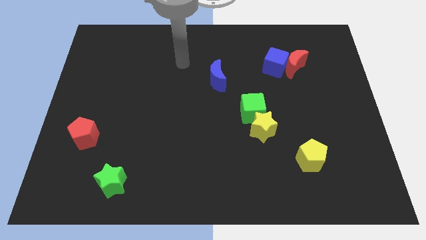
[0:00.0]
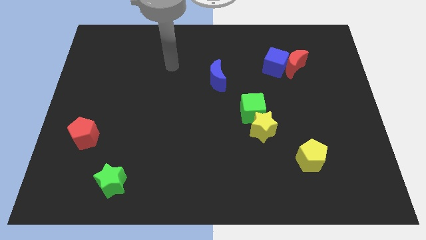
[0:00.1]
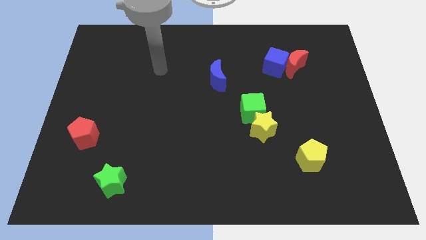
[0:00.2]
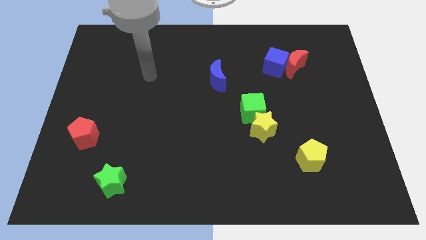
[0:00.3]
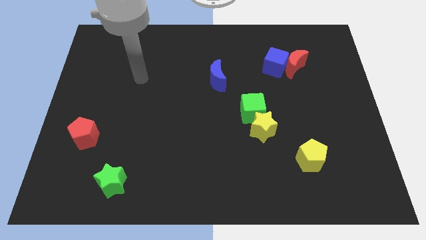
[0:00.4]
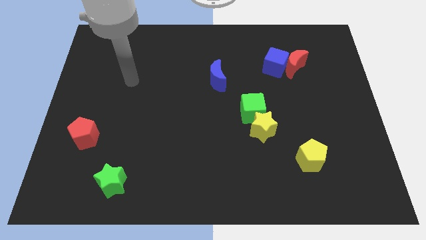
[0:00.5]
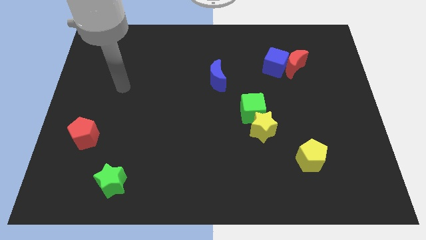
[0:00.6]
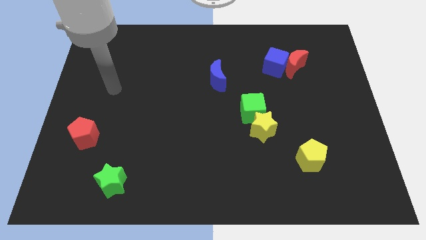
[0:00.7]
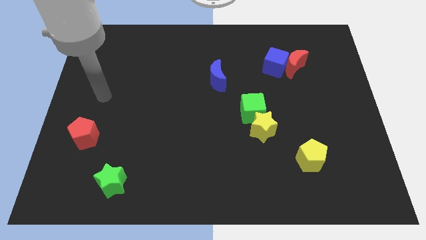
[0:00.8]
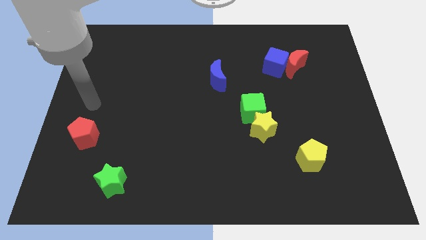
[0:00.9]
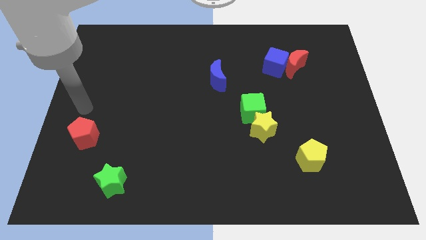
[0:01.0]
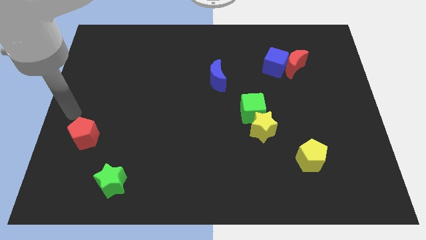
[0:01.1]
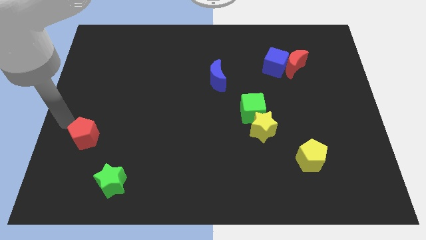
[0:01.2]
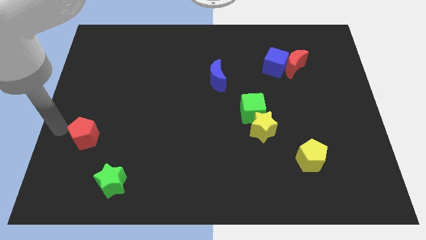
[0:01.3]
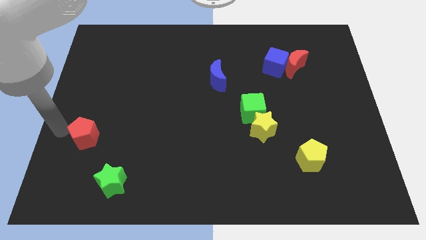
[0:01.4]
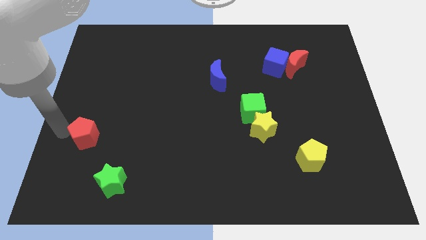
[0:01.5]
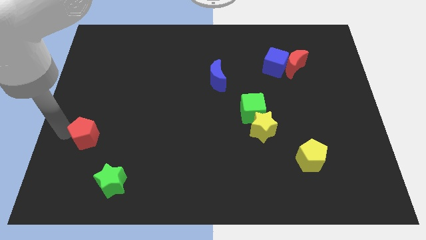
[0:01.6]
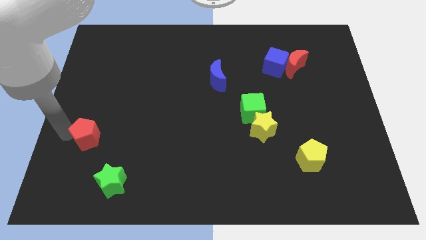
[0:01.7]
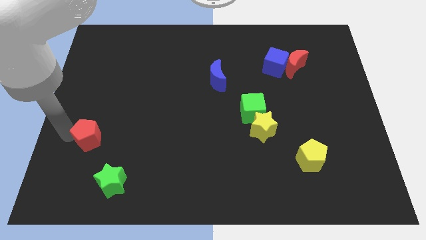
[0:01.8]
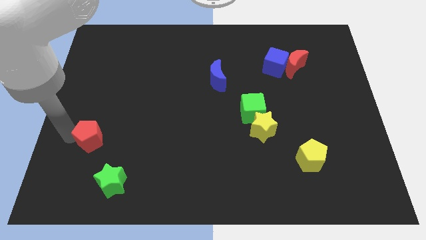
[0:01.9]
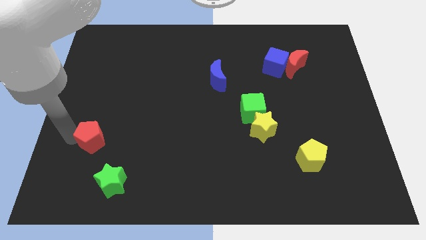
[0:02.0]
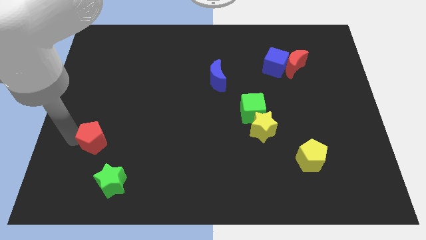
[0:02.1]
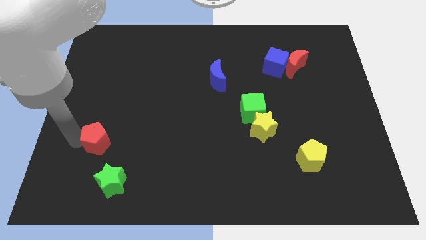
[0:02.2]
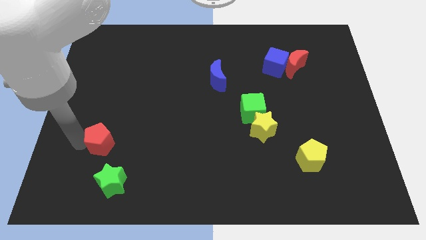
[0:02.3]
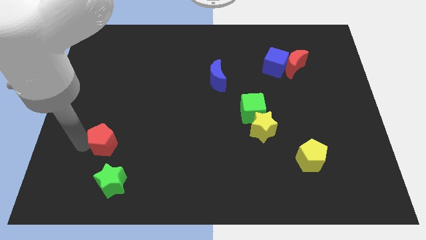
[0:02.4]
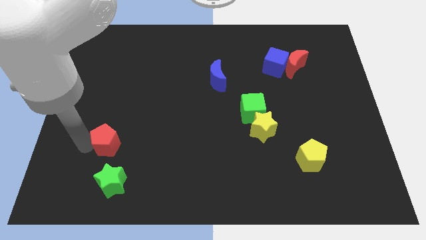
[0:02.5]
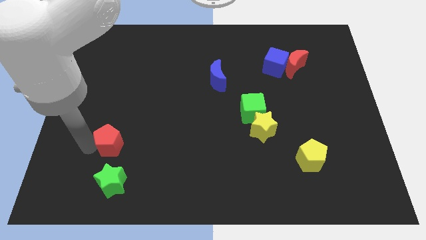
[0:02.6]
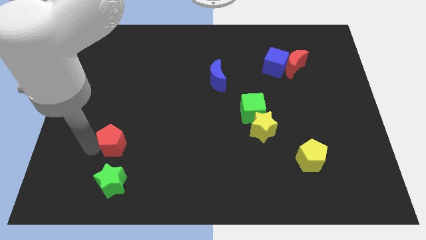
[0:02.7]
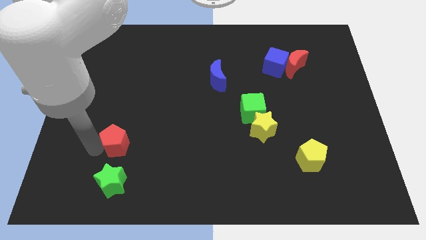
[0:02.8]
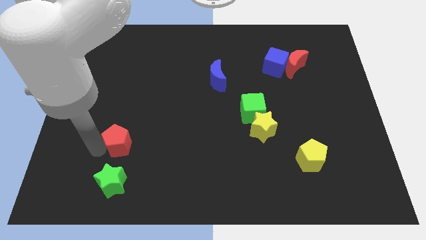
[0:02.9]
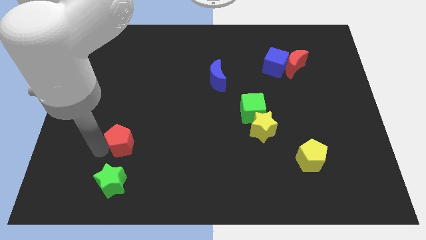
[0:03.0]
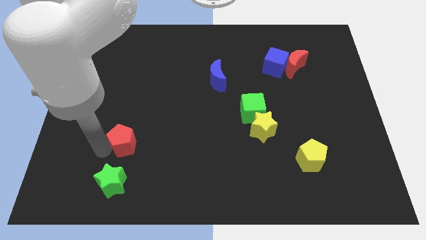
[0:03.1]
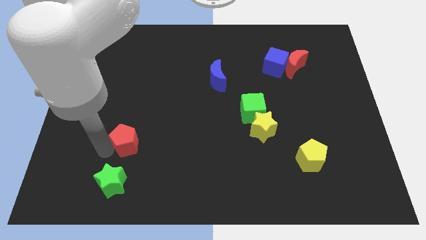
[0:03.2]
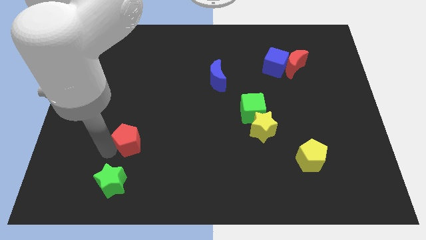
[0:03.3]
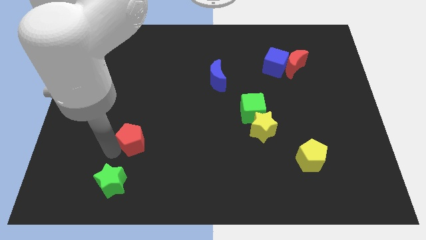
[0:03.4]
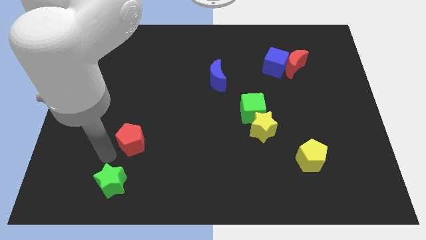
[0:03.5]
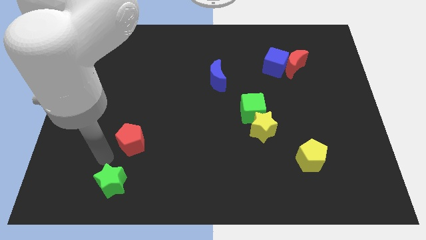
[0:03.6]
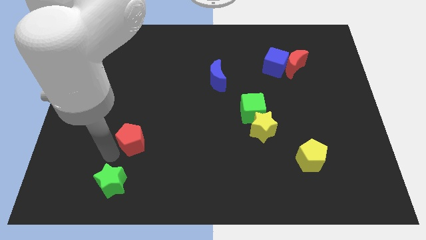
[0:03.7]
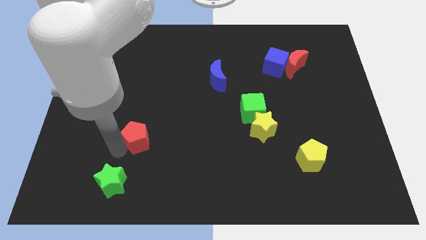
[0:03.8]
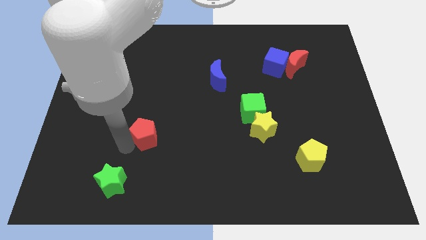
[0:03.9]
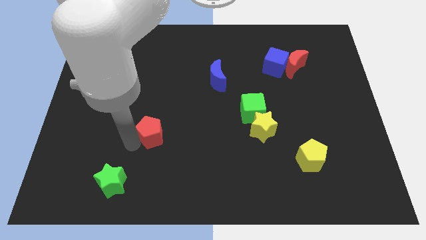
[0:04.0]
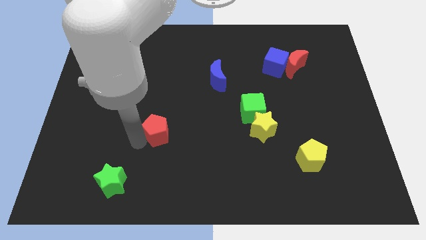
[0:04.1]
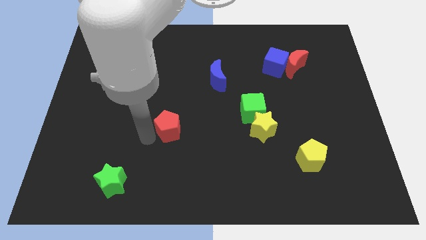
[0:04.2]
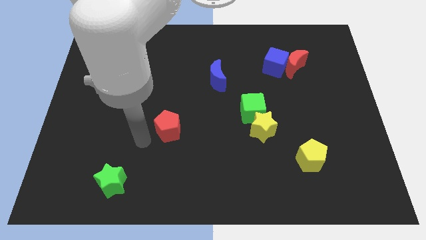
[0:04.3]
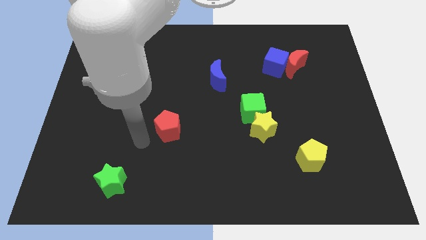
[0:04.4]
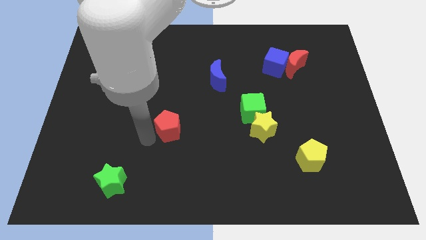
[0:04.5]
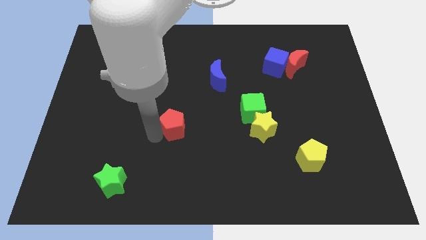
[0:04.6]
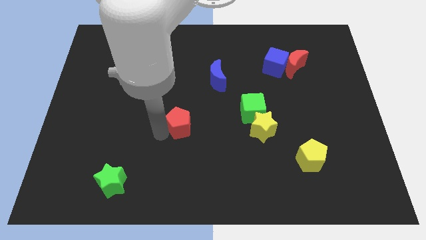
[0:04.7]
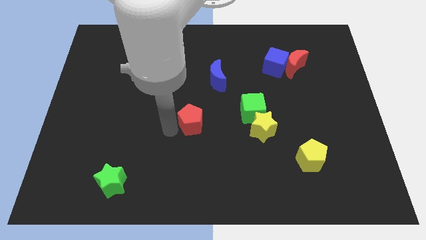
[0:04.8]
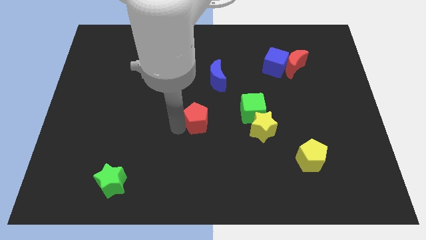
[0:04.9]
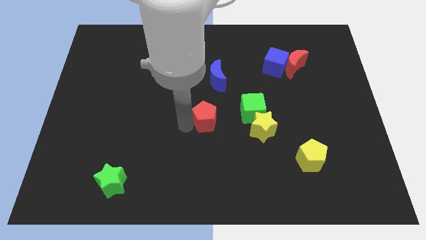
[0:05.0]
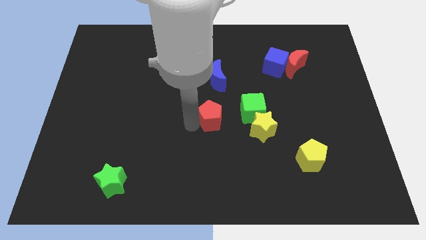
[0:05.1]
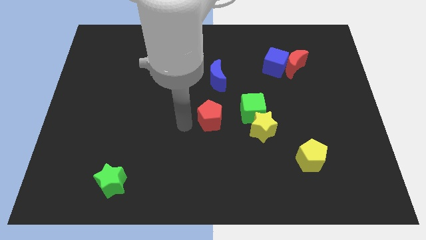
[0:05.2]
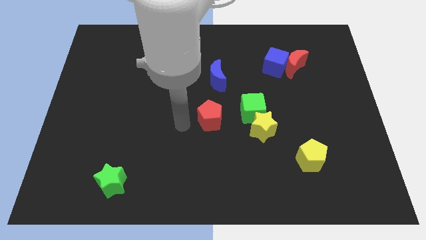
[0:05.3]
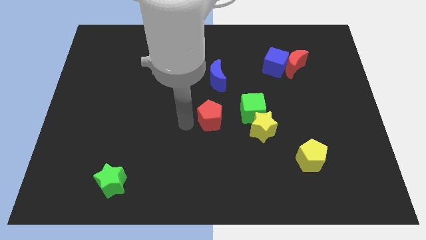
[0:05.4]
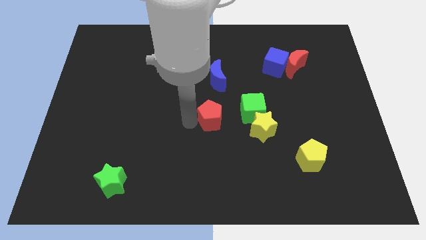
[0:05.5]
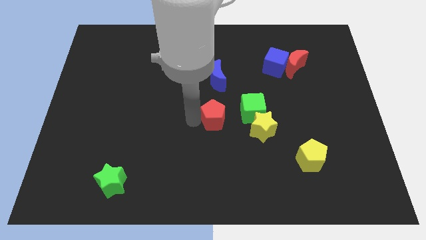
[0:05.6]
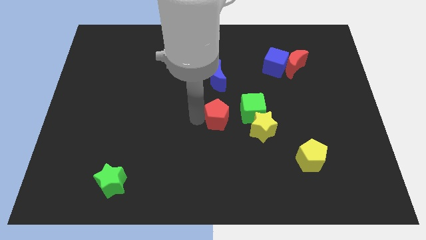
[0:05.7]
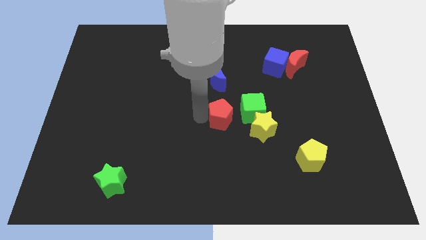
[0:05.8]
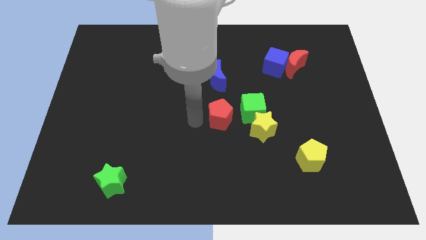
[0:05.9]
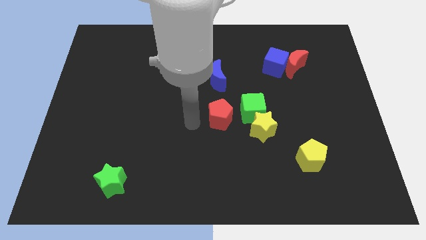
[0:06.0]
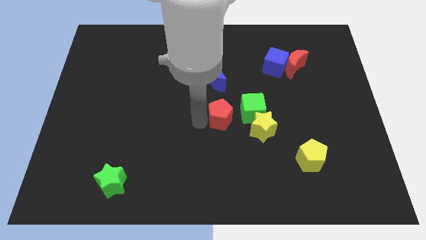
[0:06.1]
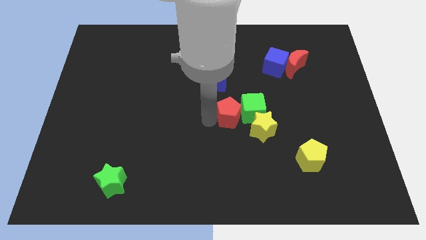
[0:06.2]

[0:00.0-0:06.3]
put the red pentagon to the green cube

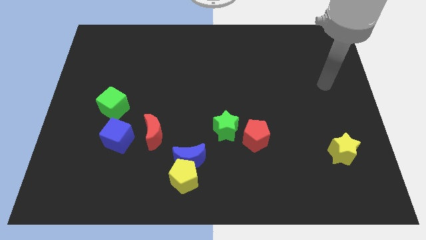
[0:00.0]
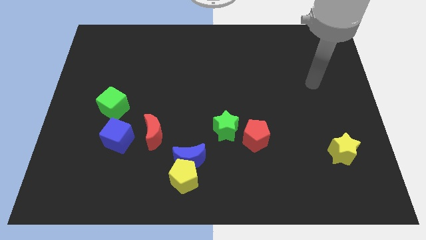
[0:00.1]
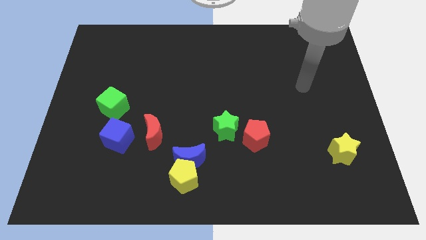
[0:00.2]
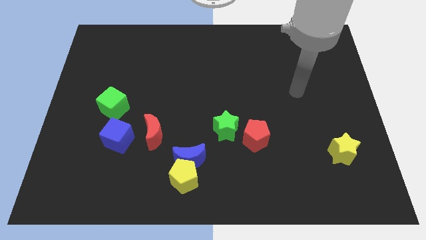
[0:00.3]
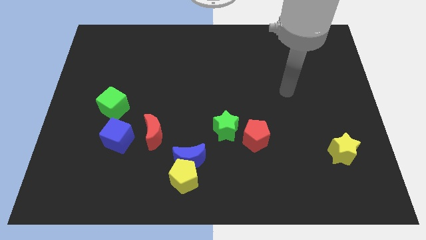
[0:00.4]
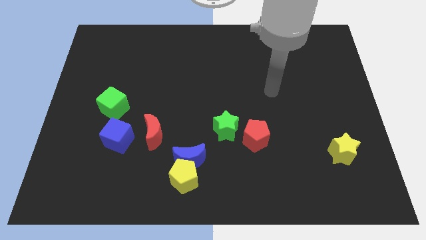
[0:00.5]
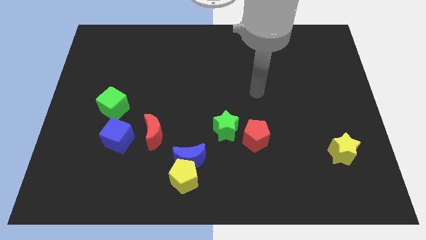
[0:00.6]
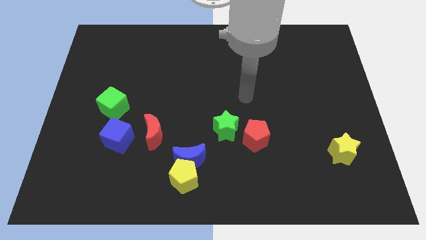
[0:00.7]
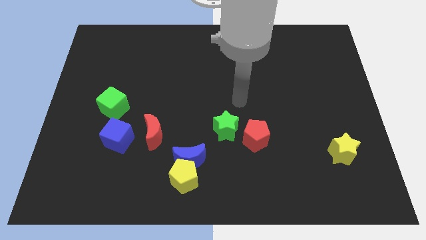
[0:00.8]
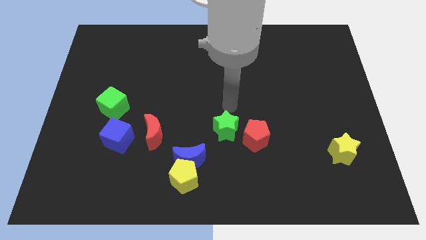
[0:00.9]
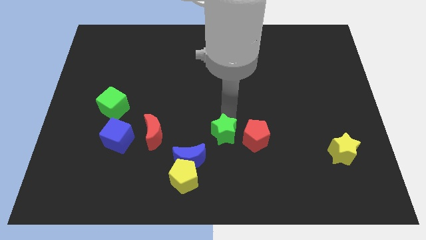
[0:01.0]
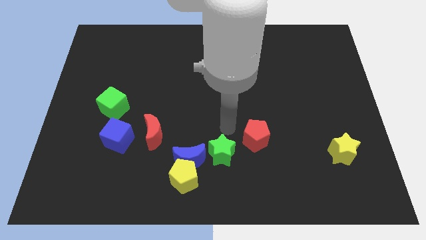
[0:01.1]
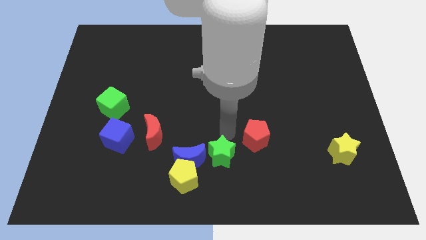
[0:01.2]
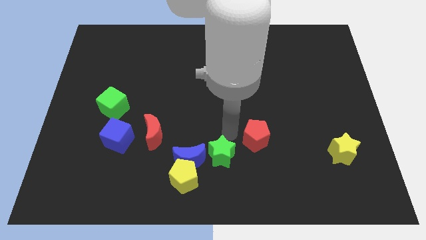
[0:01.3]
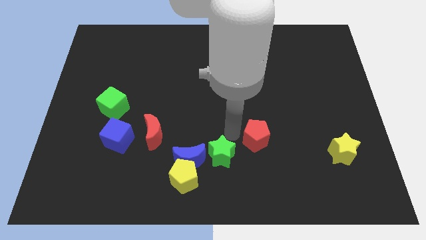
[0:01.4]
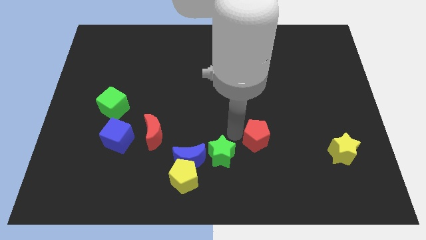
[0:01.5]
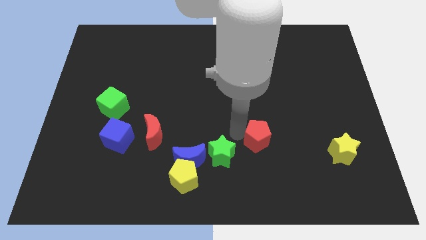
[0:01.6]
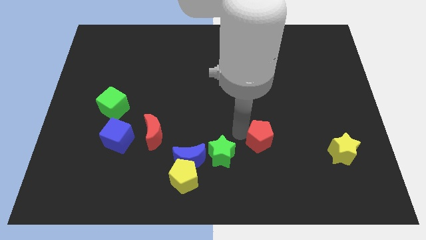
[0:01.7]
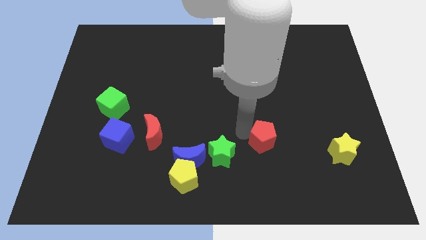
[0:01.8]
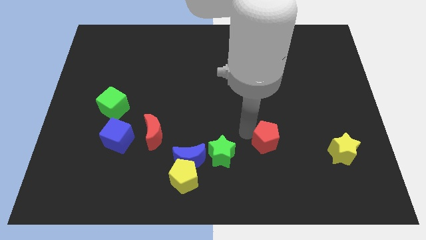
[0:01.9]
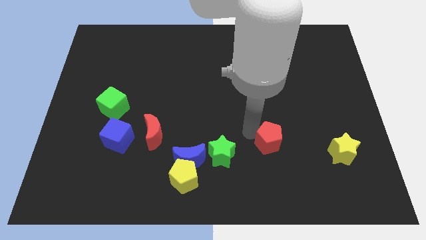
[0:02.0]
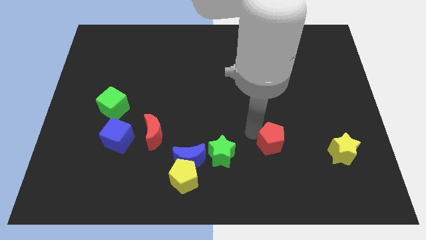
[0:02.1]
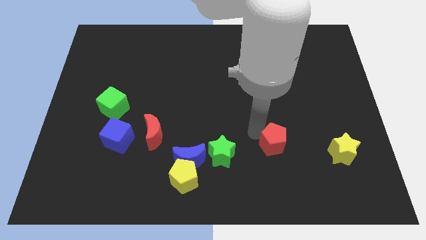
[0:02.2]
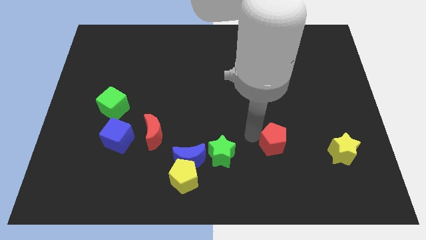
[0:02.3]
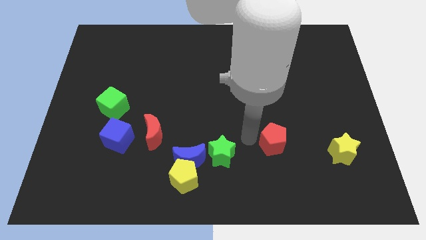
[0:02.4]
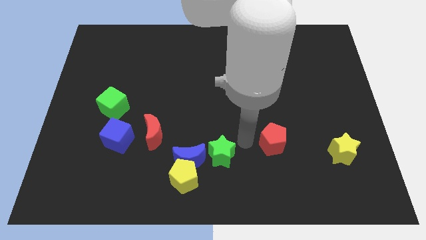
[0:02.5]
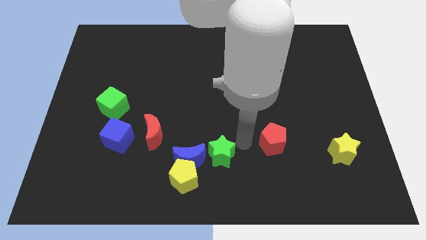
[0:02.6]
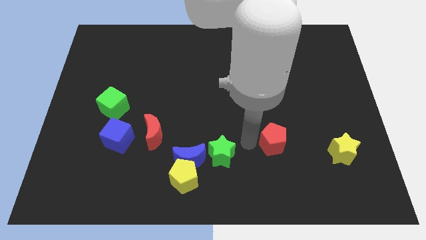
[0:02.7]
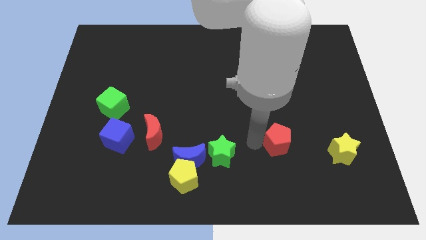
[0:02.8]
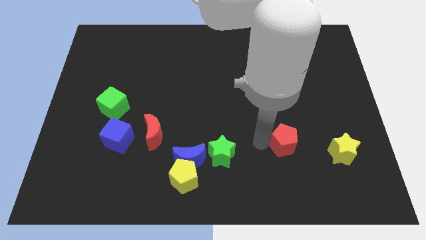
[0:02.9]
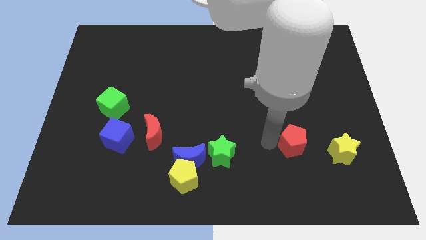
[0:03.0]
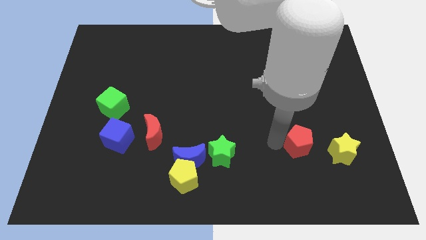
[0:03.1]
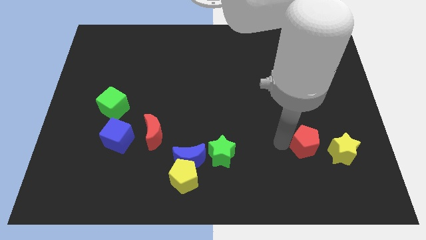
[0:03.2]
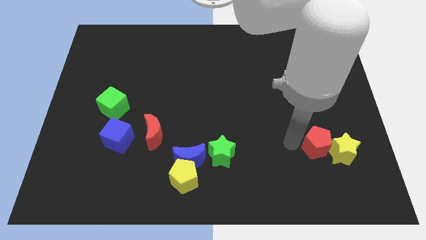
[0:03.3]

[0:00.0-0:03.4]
move the red pentagon towards the yellow star
